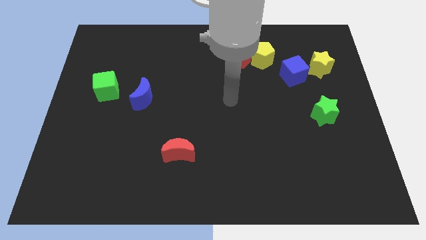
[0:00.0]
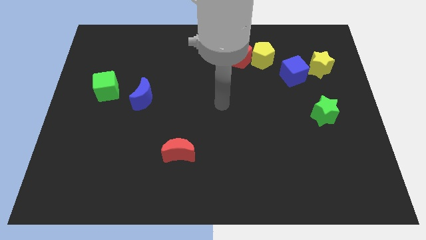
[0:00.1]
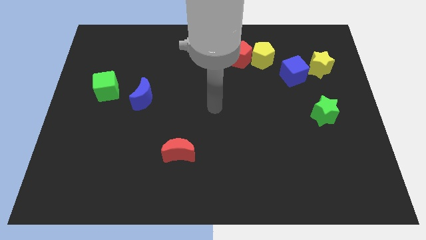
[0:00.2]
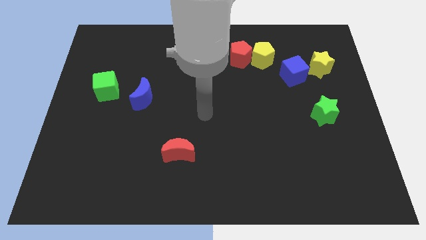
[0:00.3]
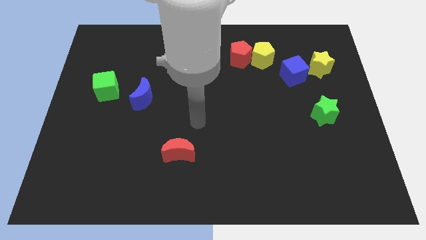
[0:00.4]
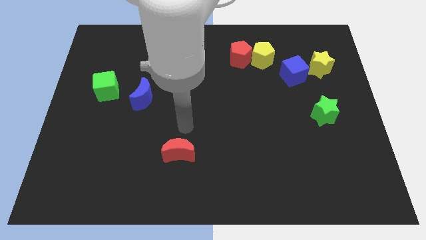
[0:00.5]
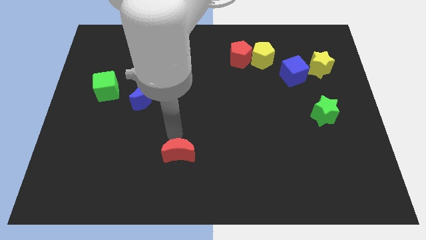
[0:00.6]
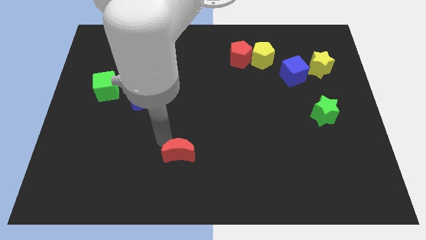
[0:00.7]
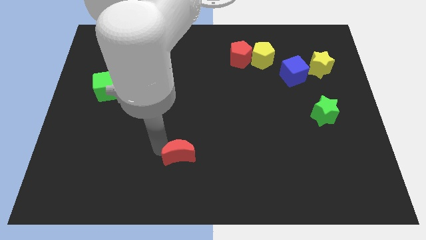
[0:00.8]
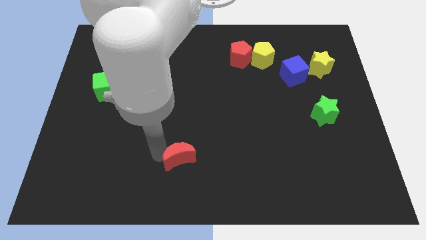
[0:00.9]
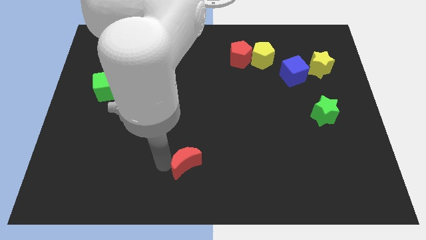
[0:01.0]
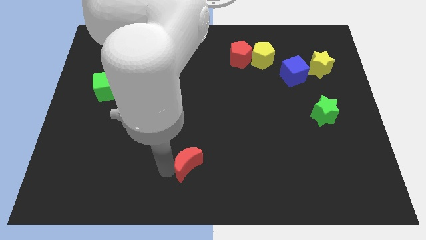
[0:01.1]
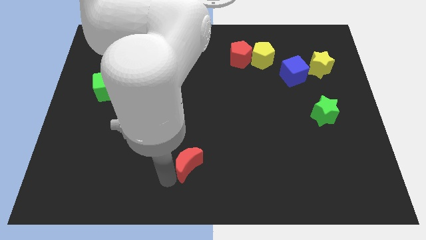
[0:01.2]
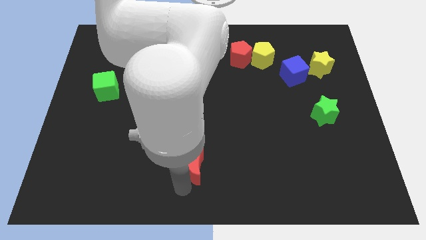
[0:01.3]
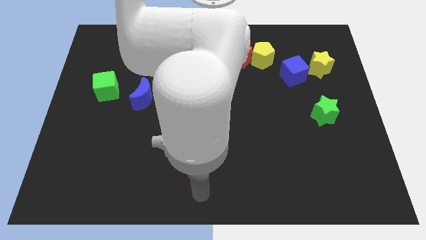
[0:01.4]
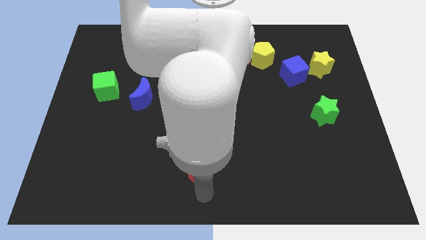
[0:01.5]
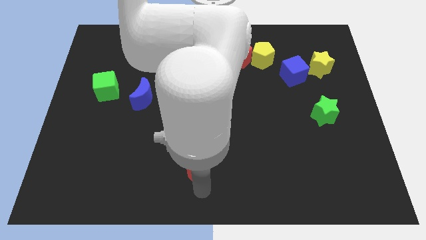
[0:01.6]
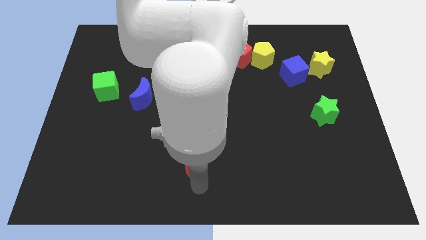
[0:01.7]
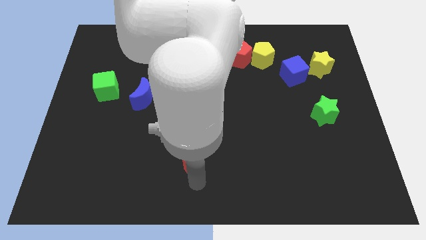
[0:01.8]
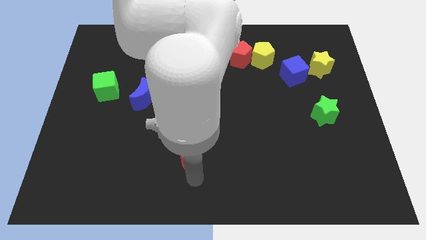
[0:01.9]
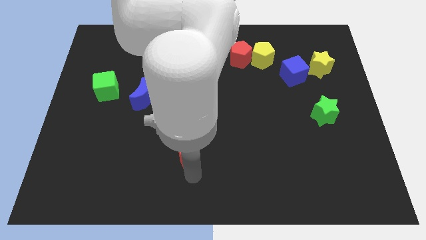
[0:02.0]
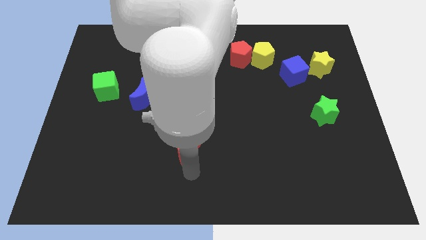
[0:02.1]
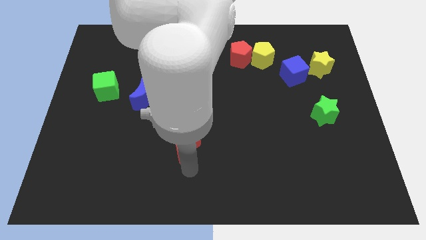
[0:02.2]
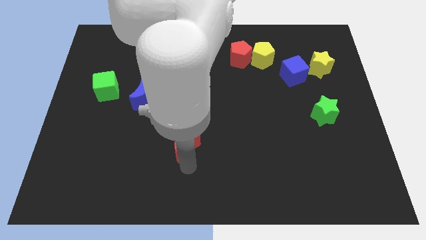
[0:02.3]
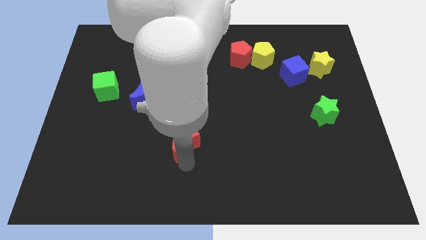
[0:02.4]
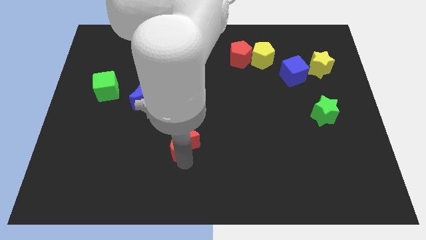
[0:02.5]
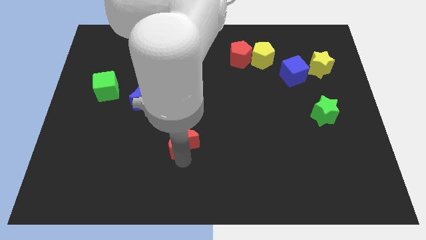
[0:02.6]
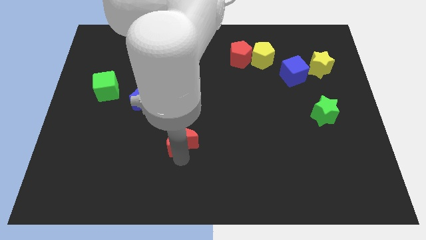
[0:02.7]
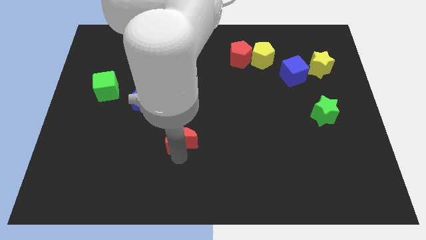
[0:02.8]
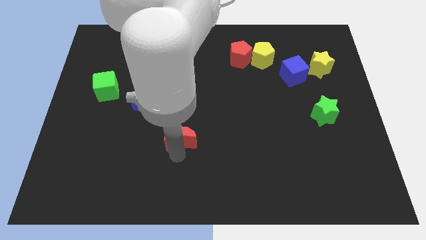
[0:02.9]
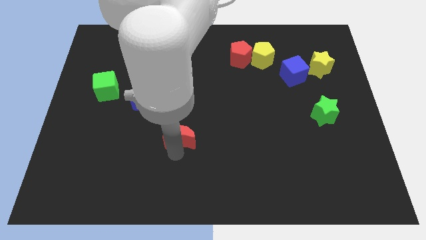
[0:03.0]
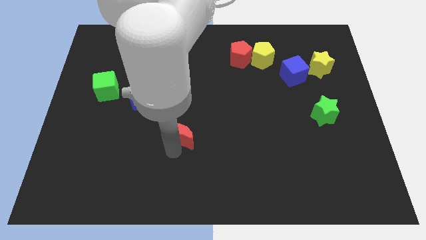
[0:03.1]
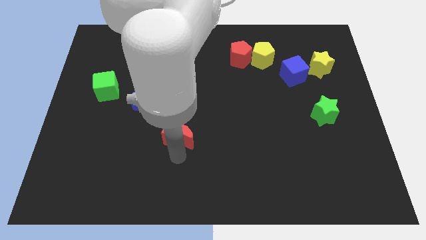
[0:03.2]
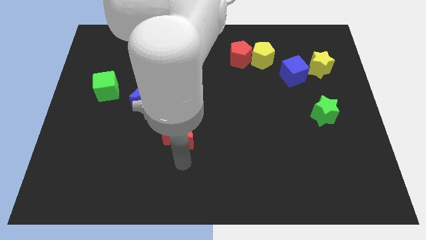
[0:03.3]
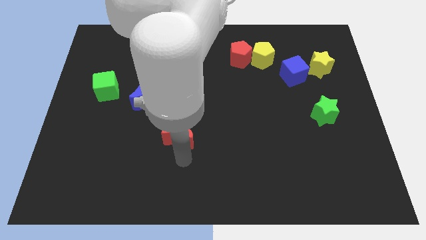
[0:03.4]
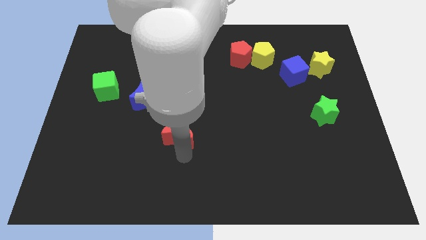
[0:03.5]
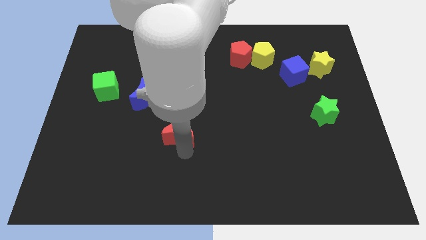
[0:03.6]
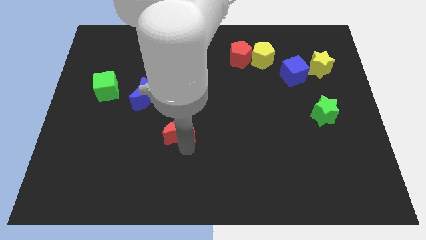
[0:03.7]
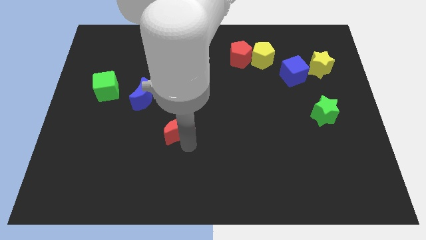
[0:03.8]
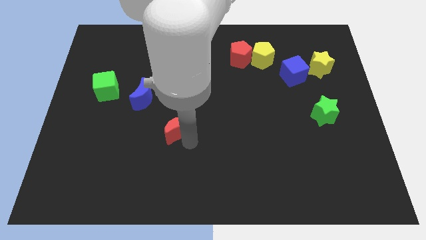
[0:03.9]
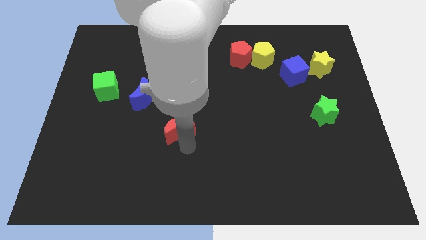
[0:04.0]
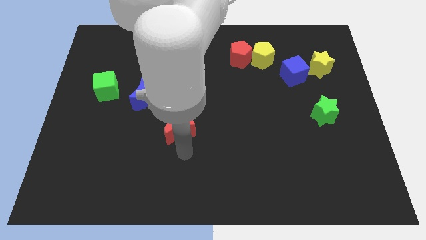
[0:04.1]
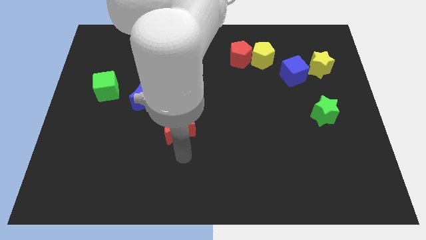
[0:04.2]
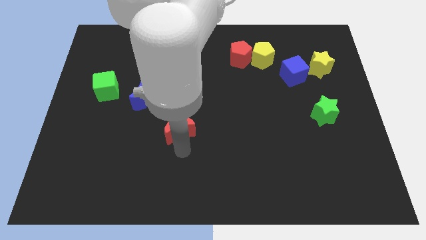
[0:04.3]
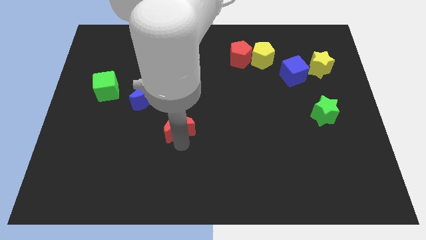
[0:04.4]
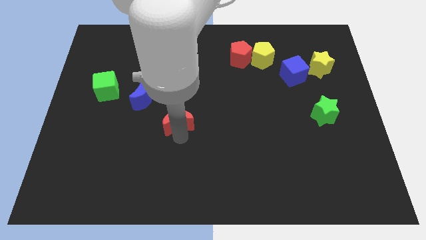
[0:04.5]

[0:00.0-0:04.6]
slightly push the red moon upwards

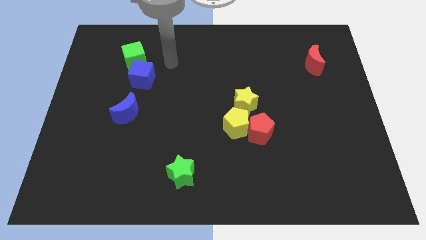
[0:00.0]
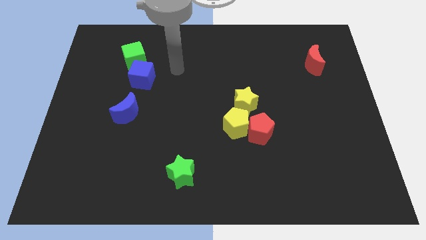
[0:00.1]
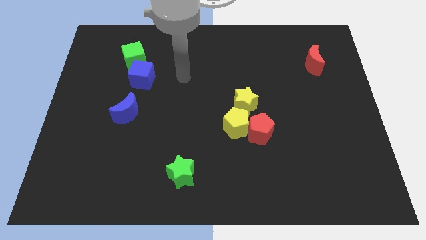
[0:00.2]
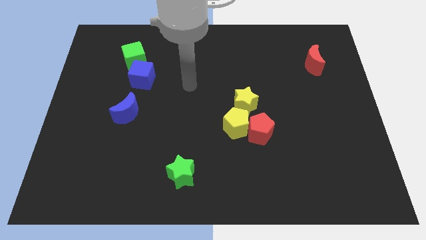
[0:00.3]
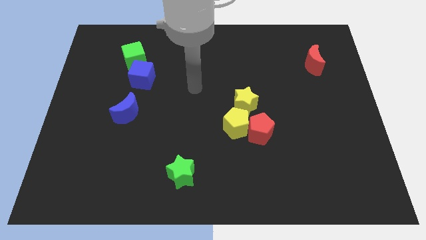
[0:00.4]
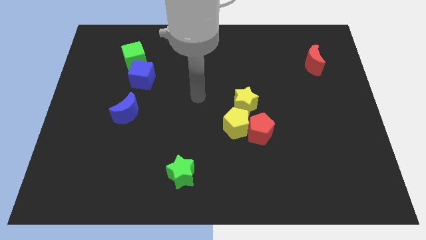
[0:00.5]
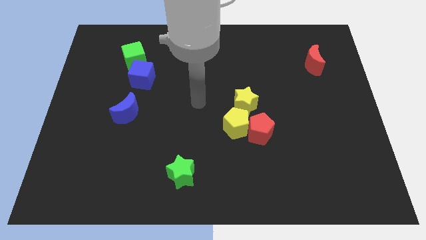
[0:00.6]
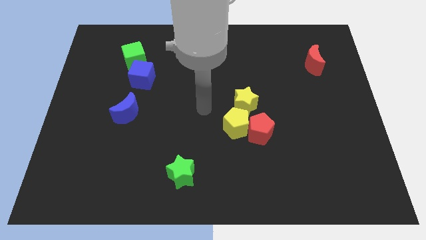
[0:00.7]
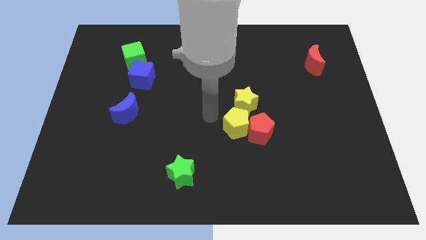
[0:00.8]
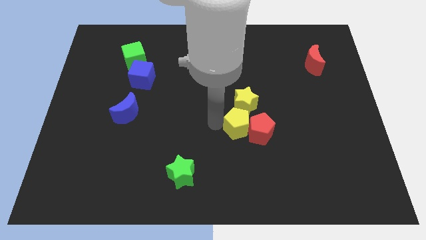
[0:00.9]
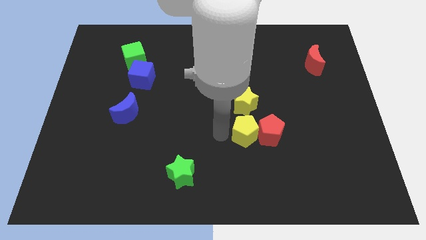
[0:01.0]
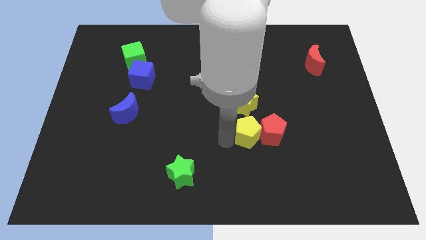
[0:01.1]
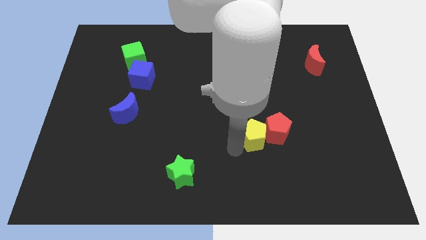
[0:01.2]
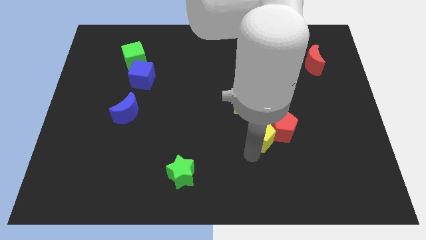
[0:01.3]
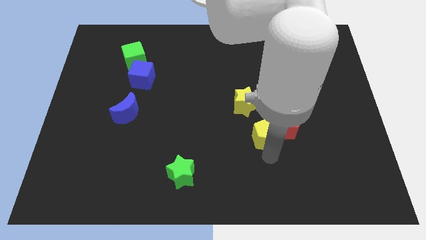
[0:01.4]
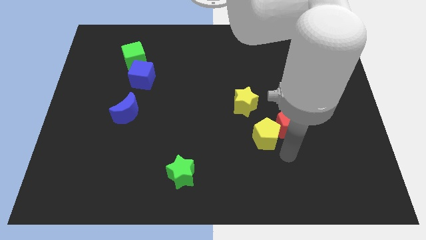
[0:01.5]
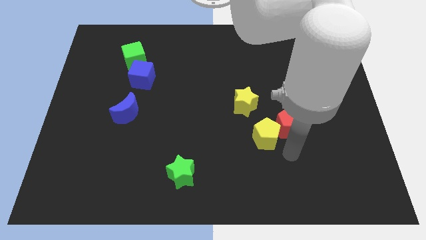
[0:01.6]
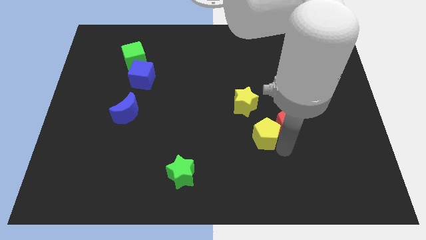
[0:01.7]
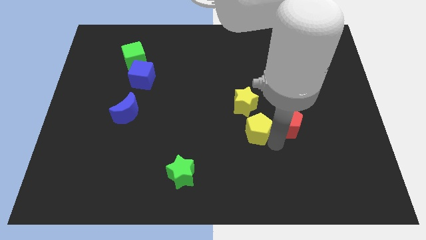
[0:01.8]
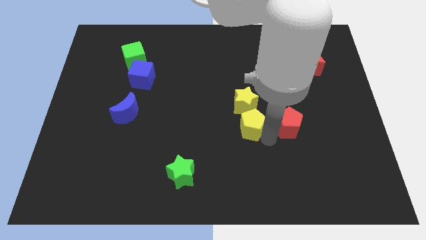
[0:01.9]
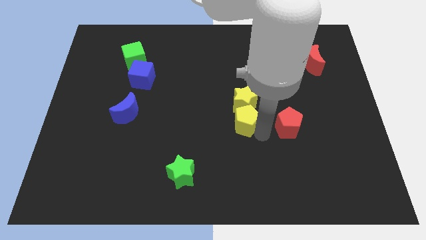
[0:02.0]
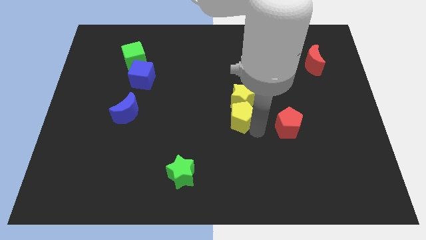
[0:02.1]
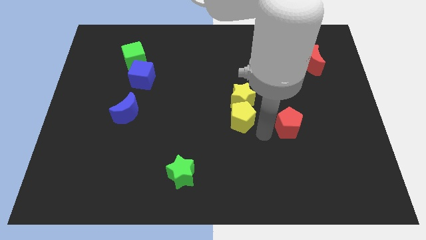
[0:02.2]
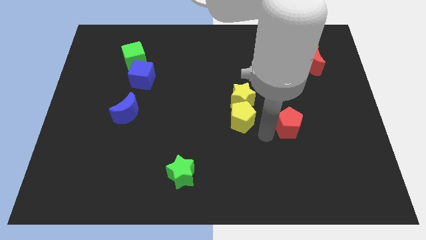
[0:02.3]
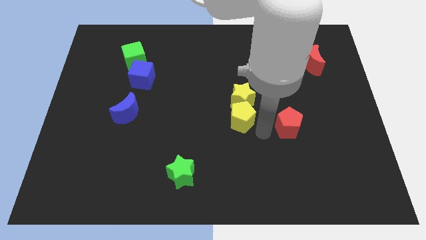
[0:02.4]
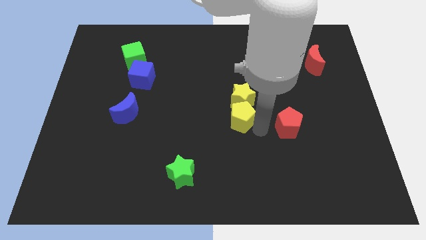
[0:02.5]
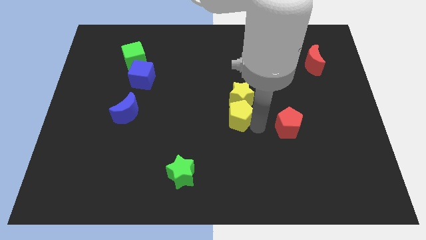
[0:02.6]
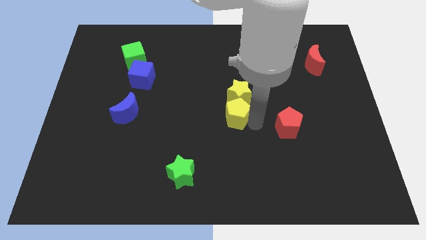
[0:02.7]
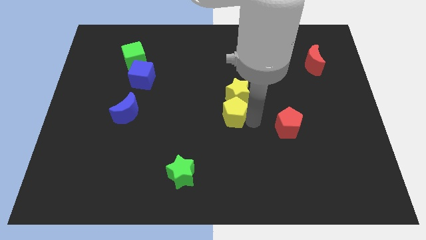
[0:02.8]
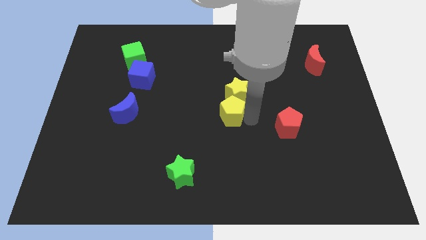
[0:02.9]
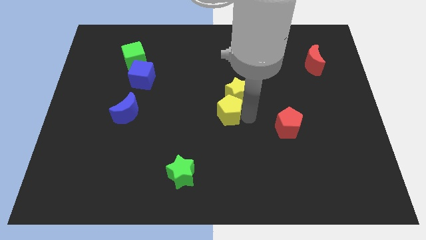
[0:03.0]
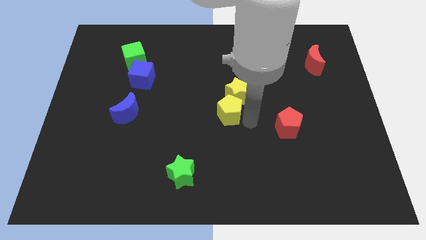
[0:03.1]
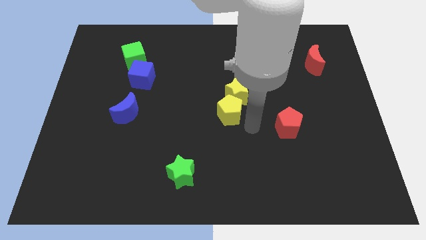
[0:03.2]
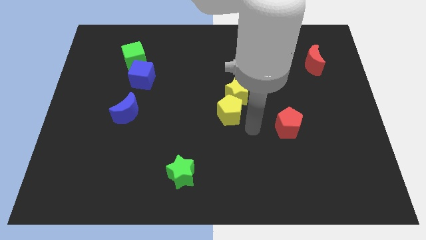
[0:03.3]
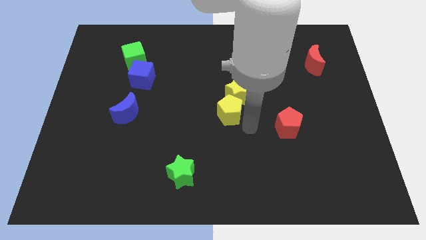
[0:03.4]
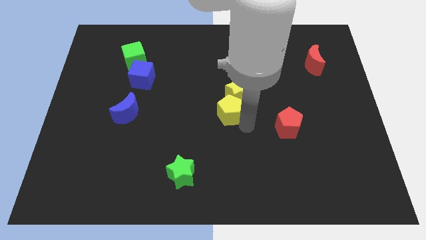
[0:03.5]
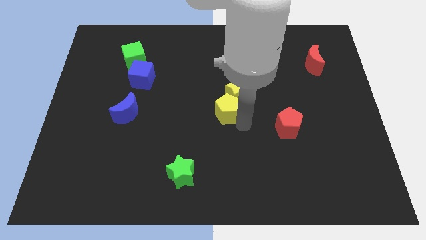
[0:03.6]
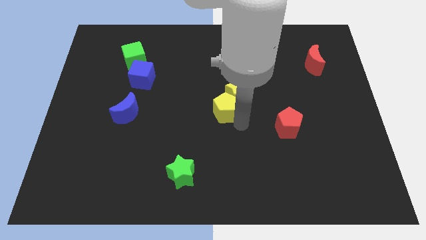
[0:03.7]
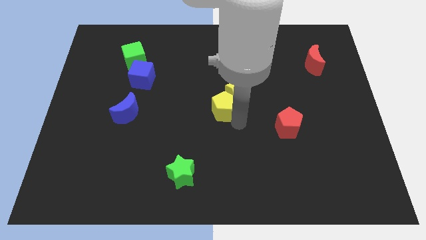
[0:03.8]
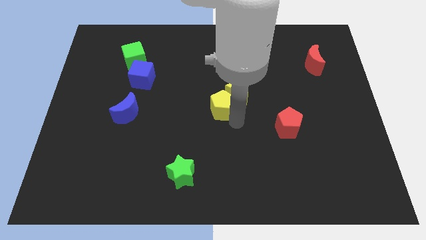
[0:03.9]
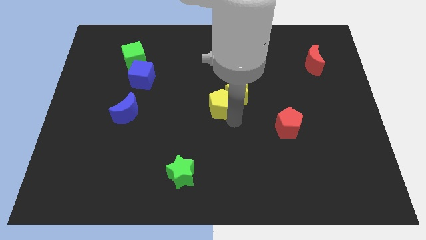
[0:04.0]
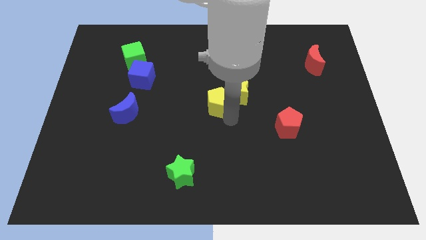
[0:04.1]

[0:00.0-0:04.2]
move the yellow pentagon upwards and left a little bit
